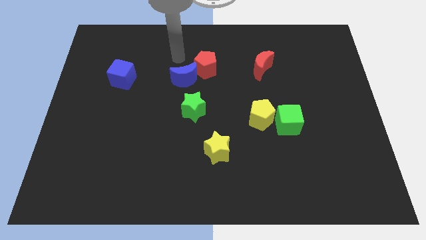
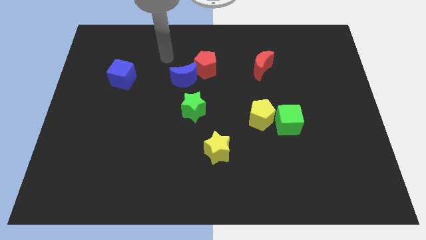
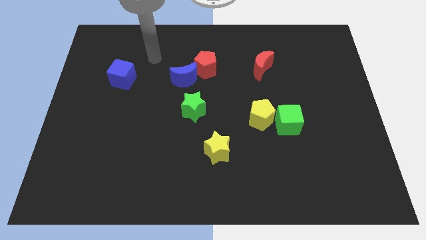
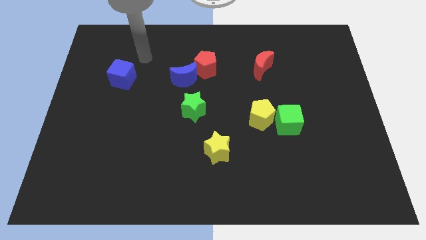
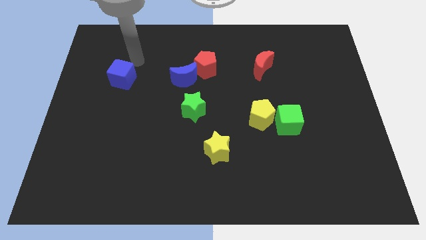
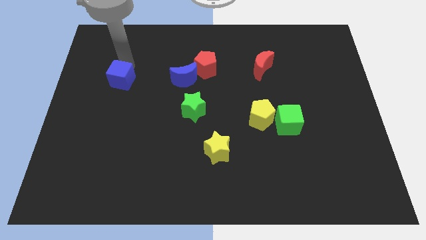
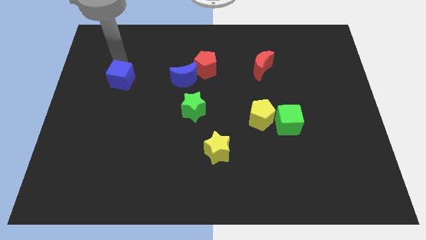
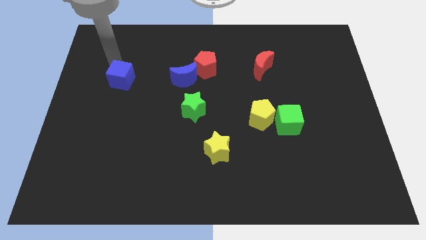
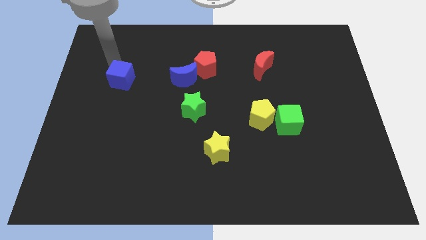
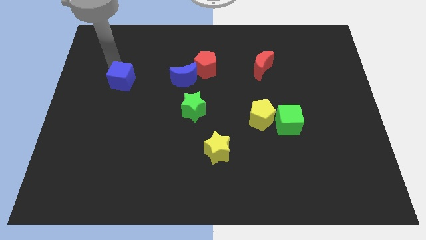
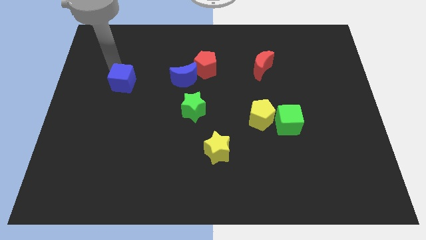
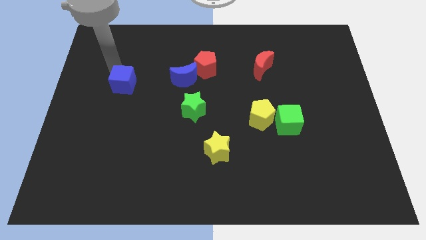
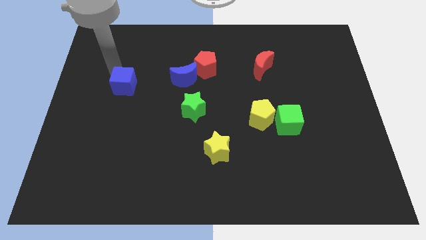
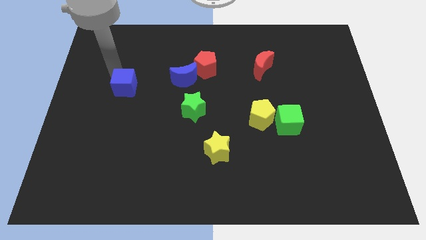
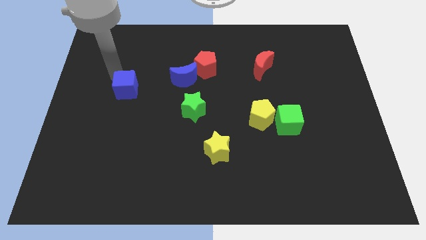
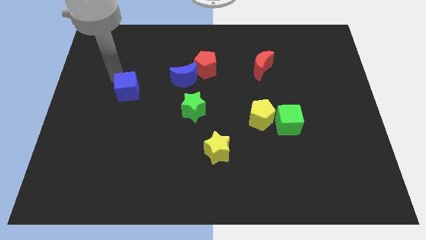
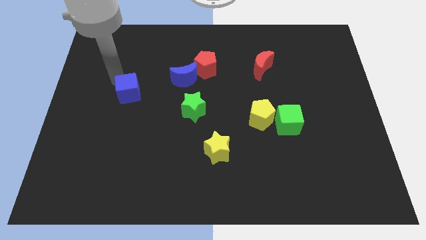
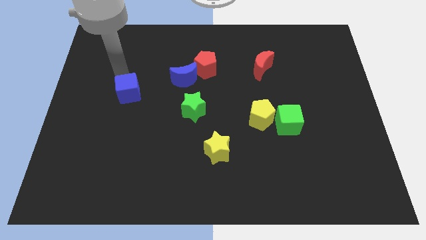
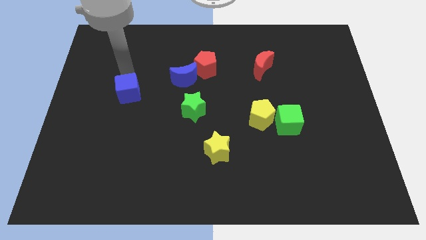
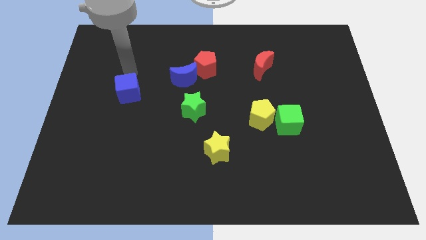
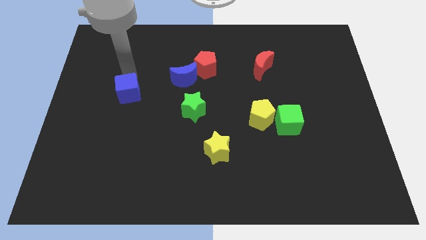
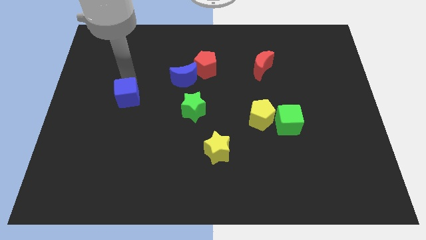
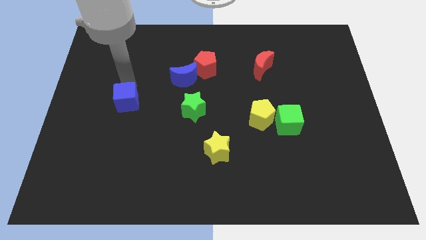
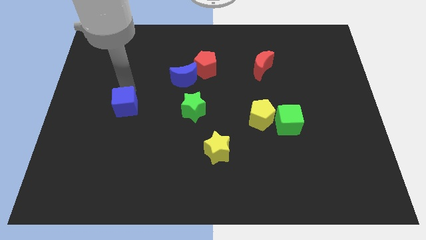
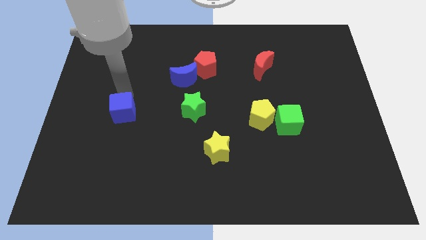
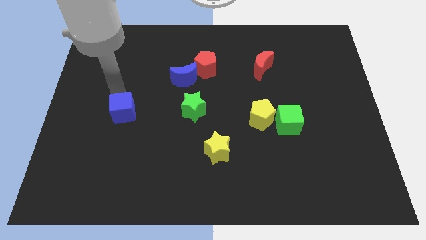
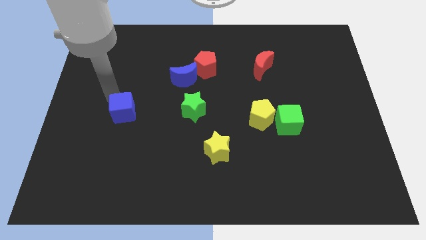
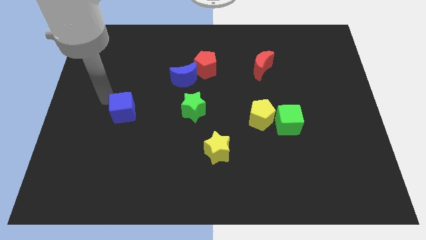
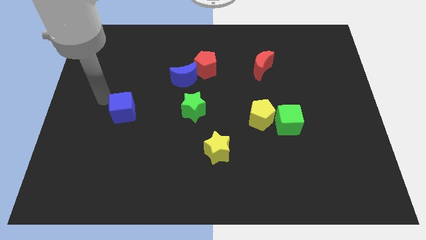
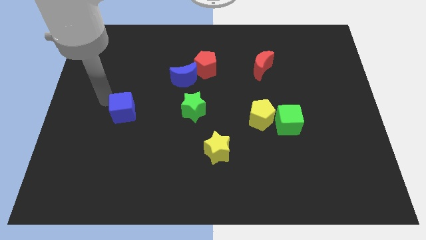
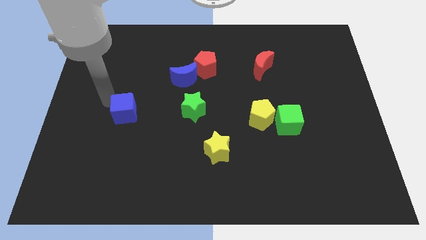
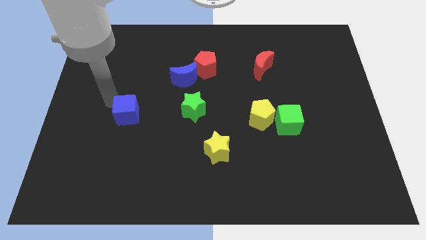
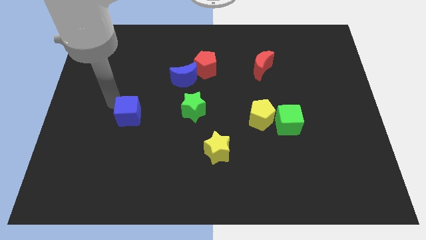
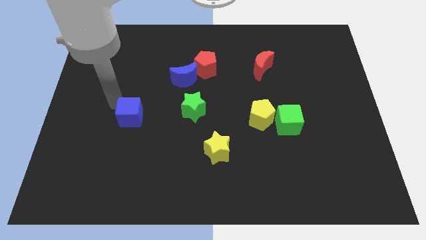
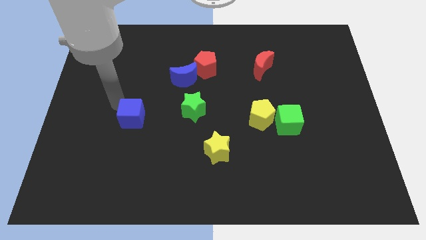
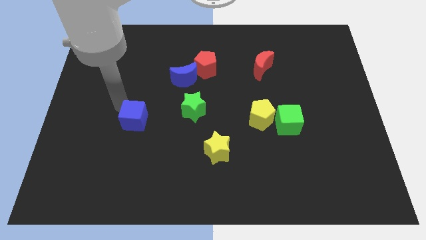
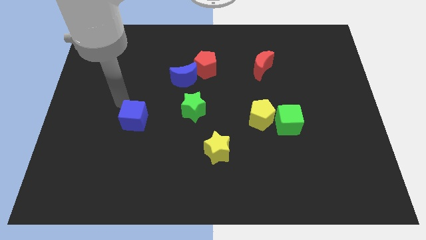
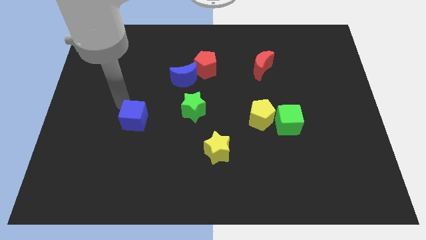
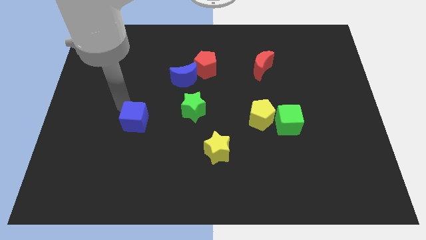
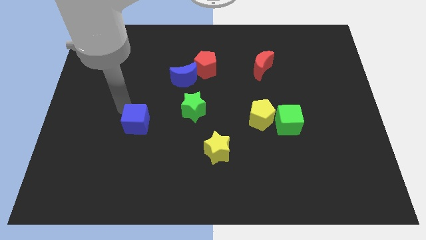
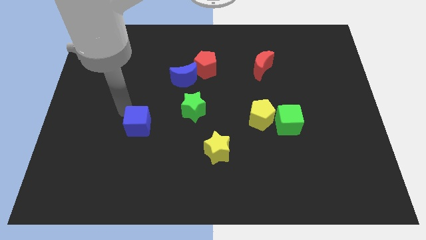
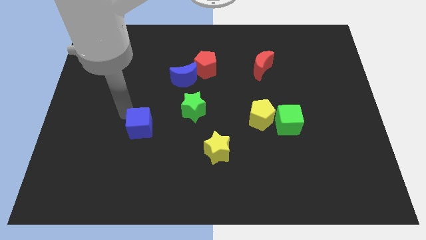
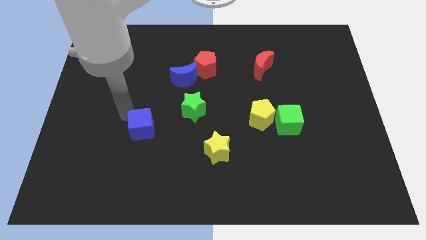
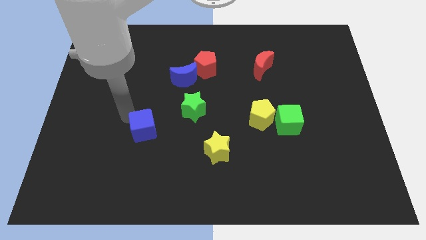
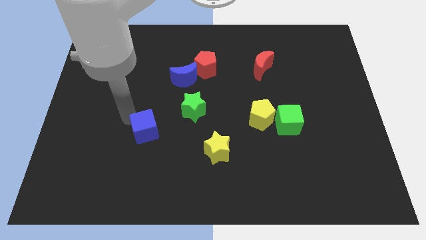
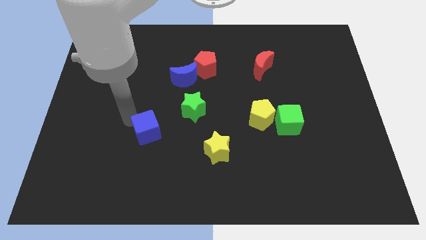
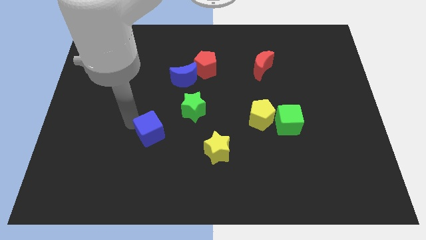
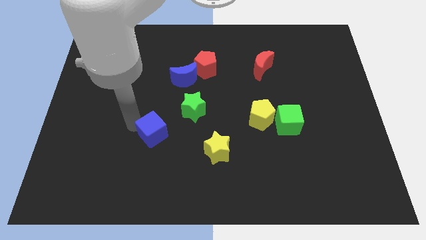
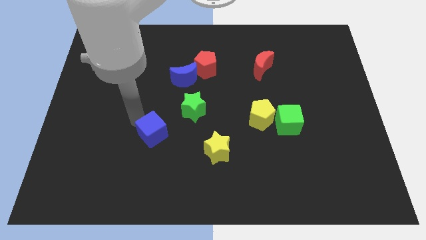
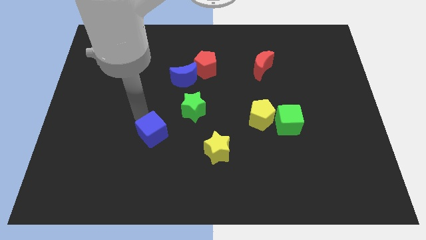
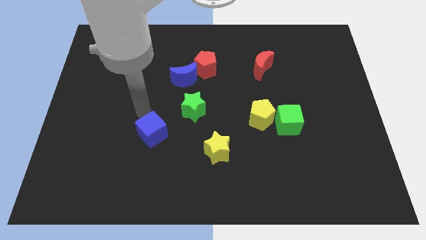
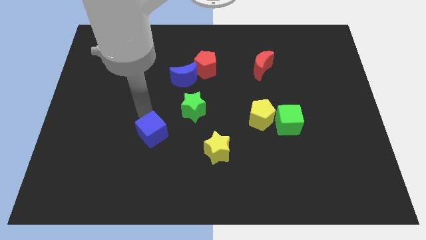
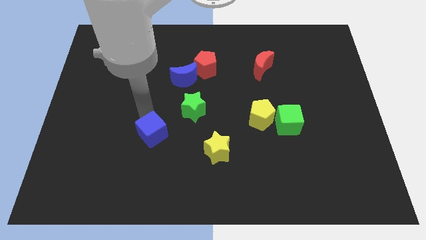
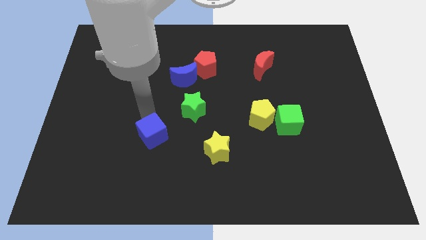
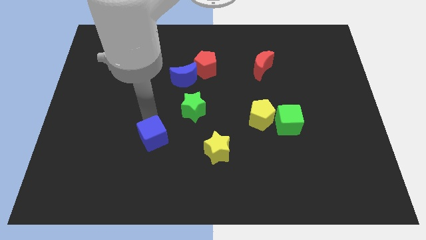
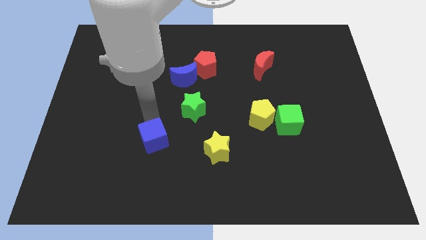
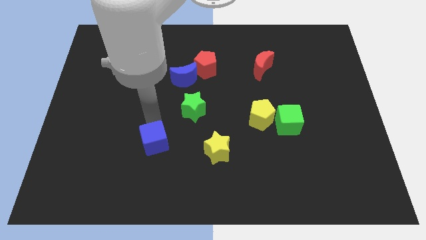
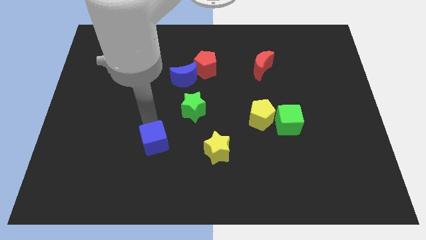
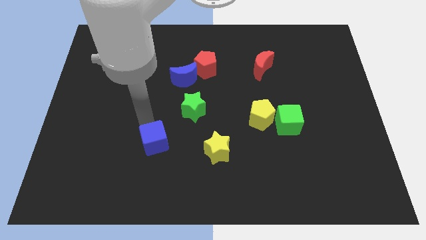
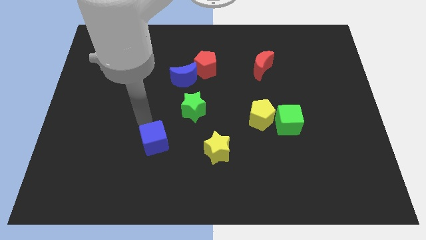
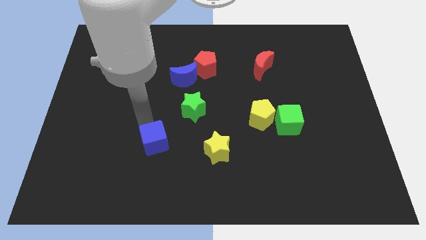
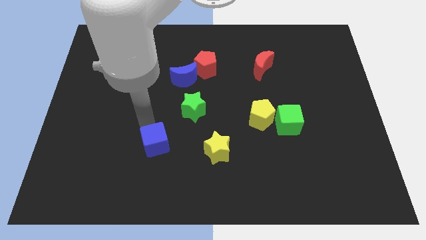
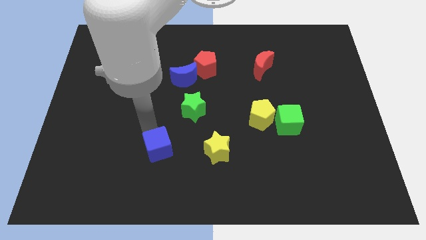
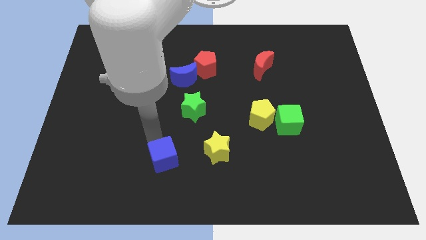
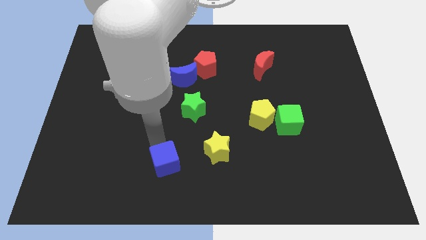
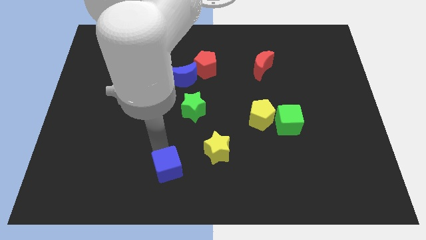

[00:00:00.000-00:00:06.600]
put the blue cube to the bottom
